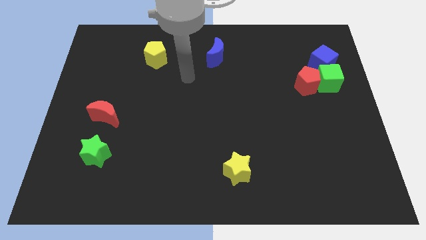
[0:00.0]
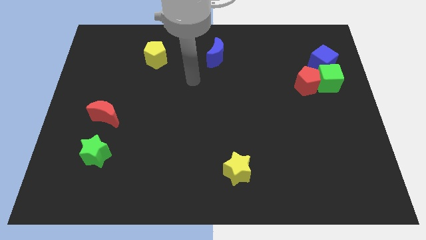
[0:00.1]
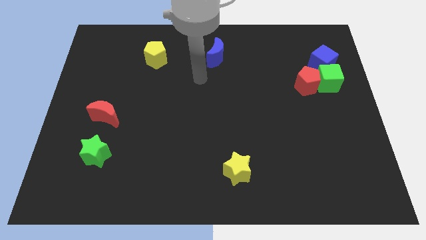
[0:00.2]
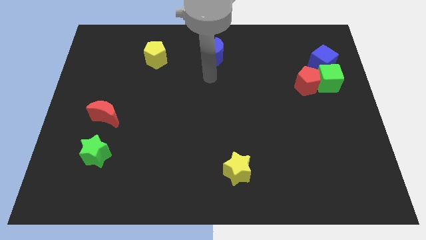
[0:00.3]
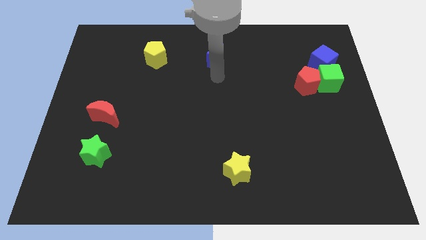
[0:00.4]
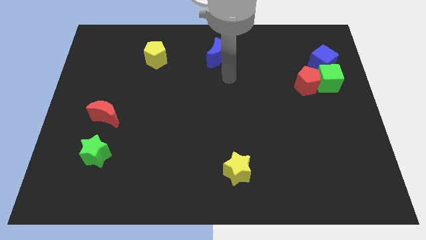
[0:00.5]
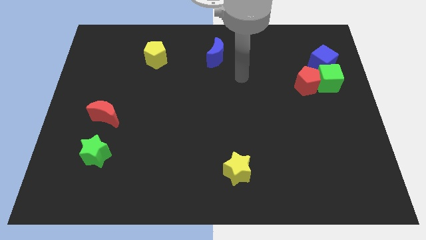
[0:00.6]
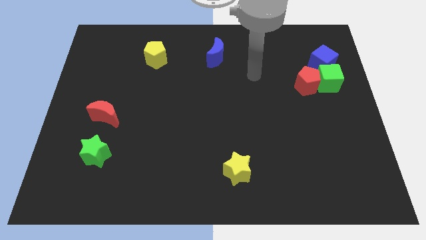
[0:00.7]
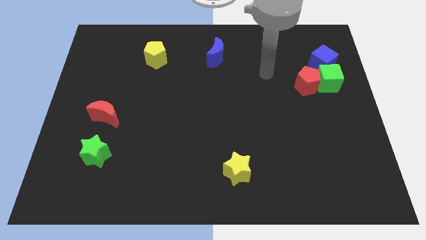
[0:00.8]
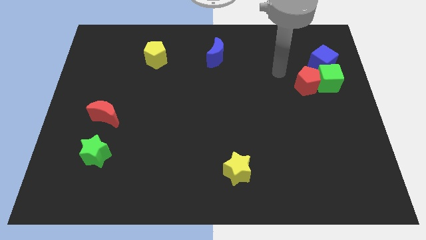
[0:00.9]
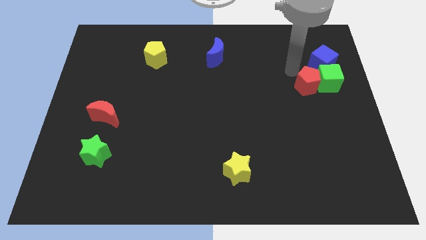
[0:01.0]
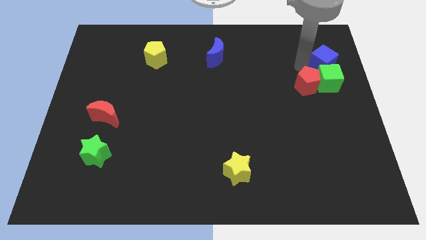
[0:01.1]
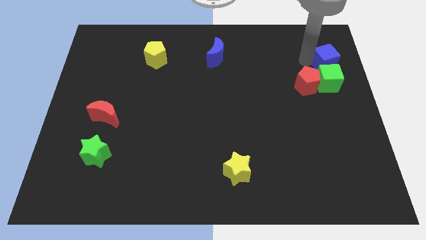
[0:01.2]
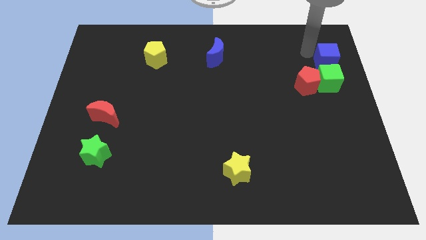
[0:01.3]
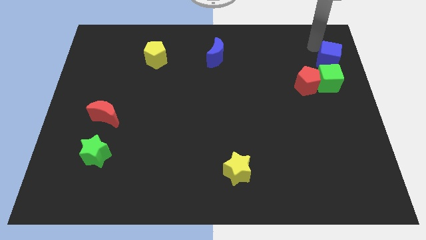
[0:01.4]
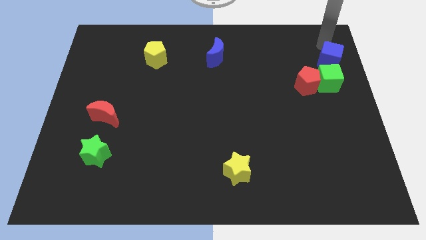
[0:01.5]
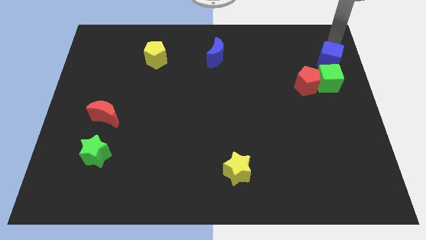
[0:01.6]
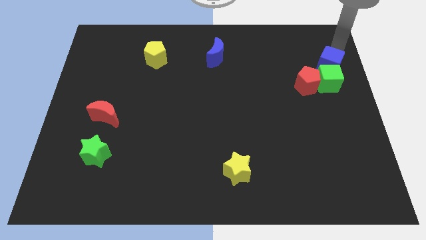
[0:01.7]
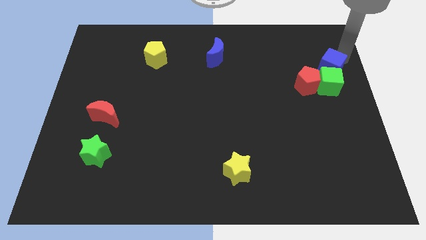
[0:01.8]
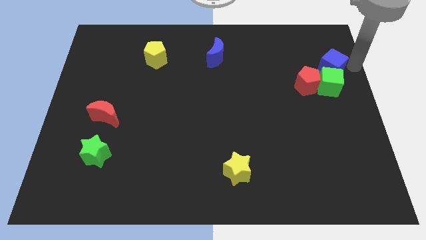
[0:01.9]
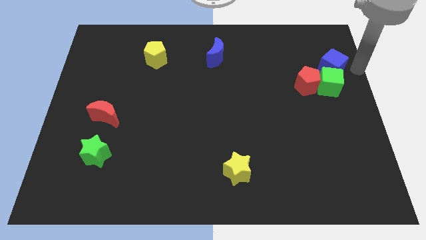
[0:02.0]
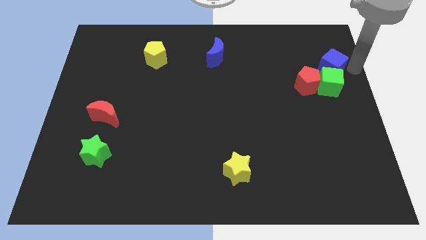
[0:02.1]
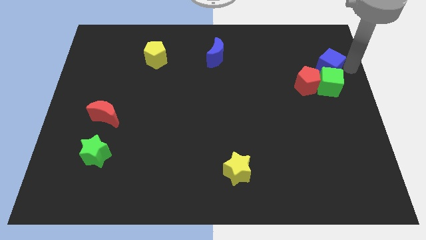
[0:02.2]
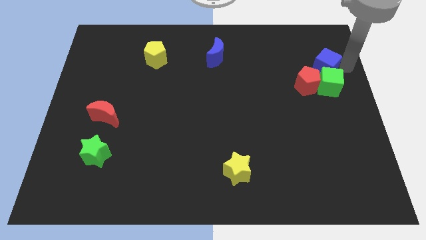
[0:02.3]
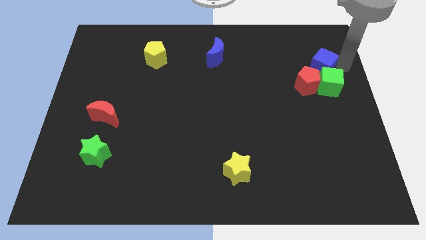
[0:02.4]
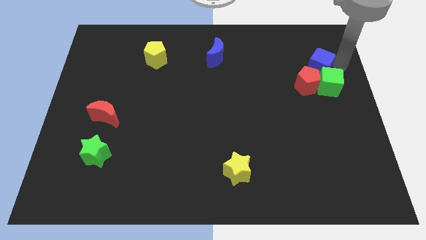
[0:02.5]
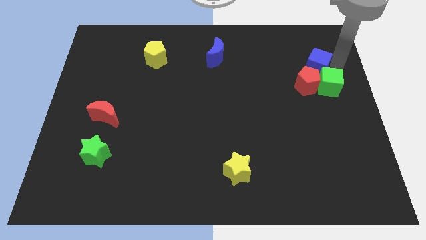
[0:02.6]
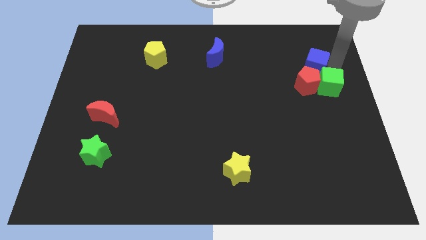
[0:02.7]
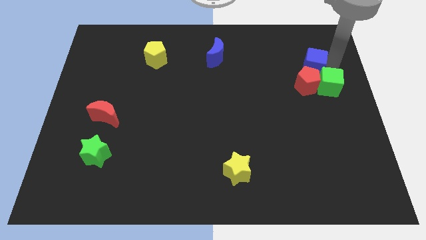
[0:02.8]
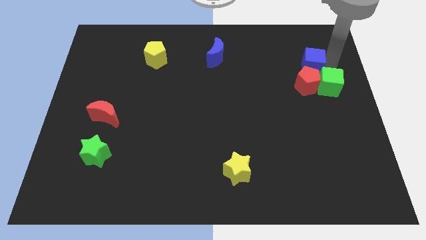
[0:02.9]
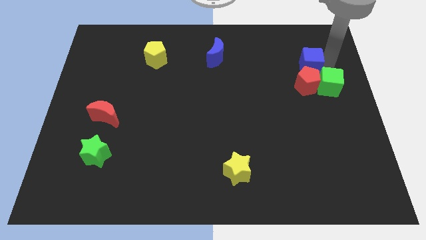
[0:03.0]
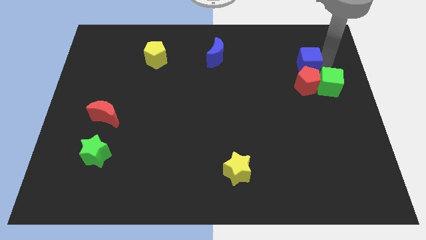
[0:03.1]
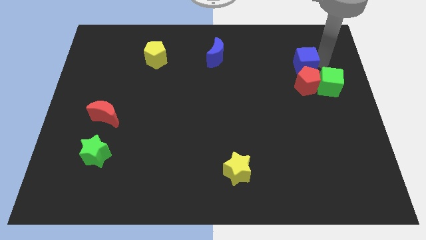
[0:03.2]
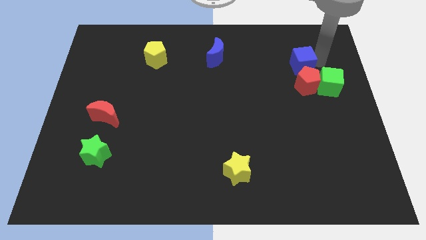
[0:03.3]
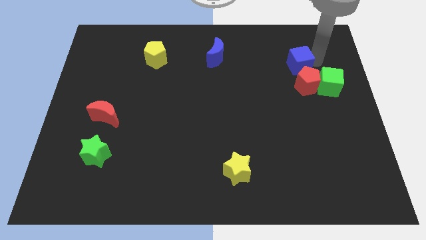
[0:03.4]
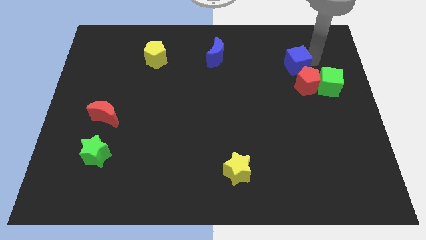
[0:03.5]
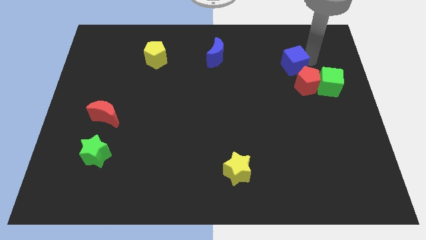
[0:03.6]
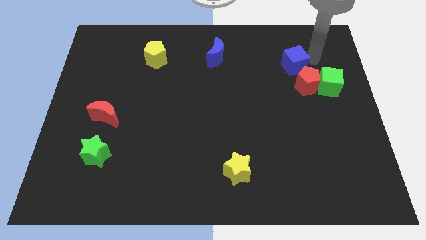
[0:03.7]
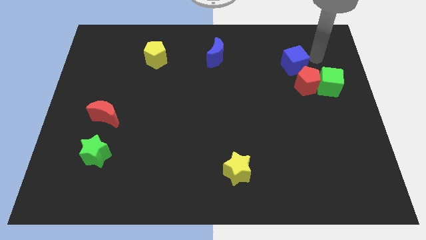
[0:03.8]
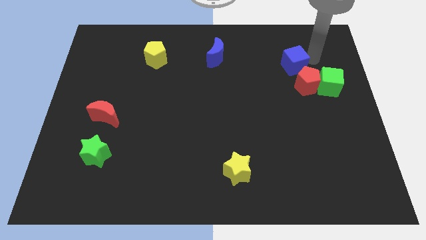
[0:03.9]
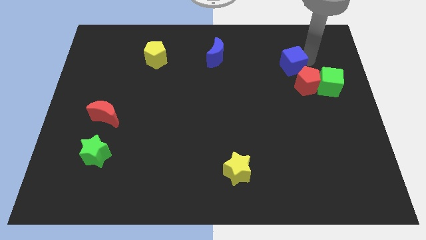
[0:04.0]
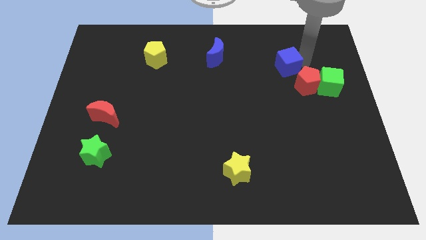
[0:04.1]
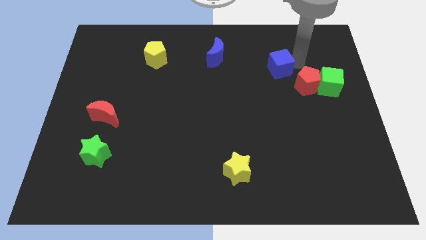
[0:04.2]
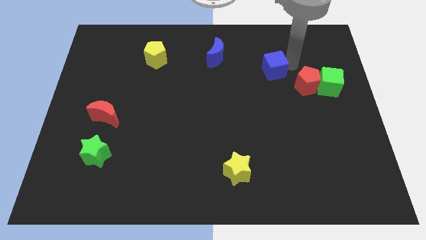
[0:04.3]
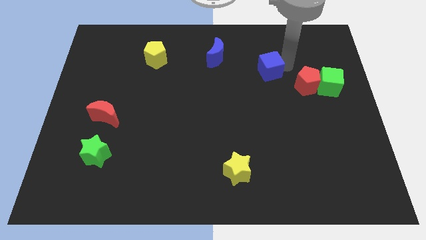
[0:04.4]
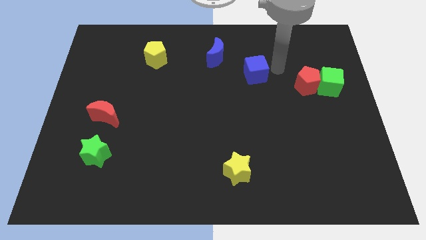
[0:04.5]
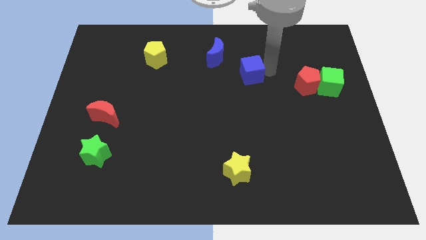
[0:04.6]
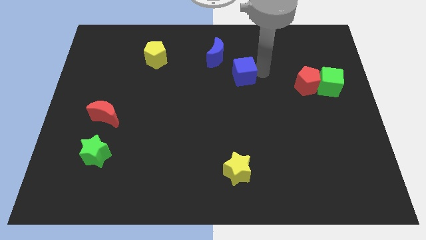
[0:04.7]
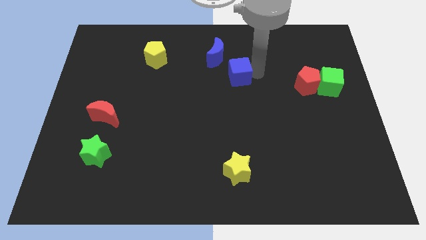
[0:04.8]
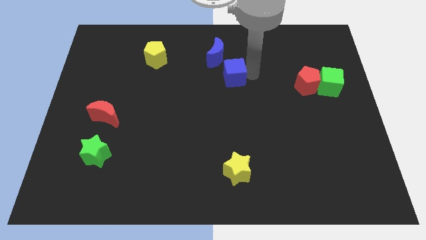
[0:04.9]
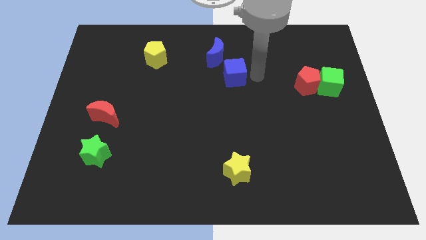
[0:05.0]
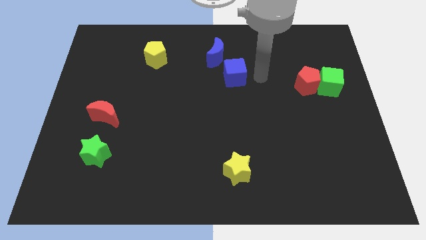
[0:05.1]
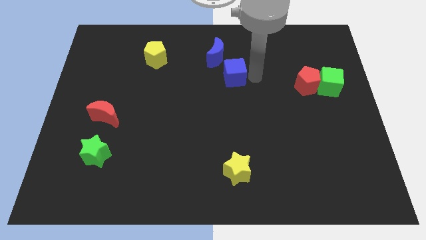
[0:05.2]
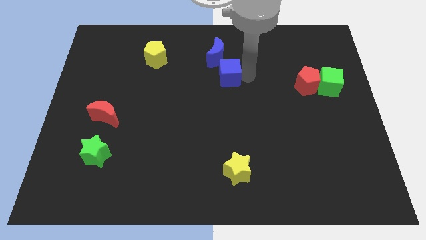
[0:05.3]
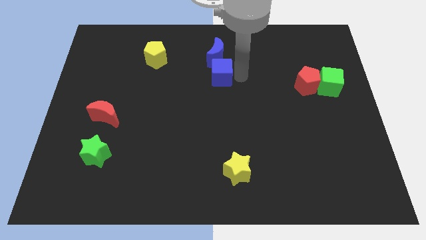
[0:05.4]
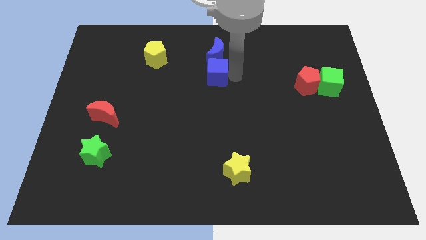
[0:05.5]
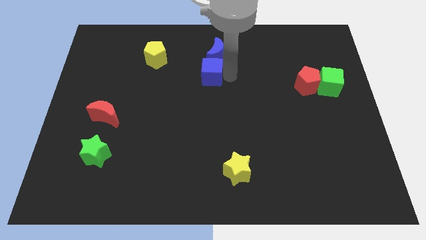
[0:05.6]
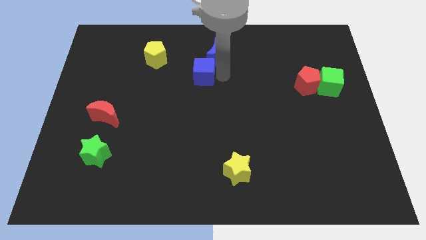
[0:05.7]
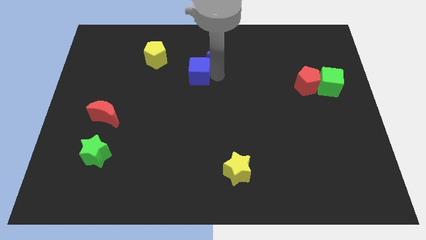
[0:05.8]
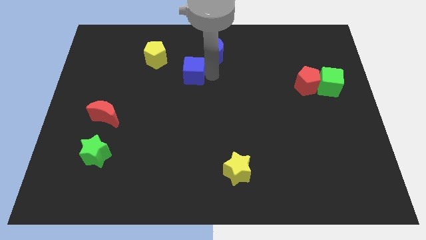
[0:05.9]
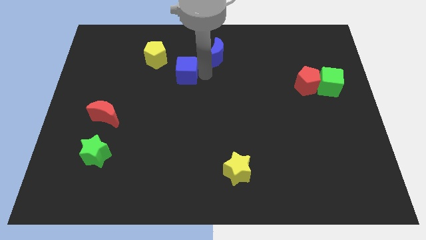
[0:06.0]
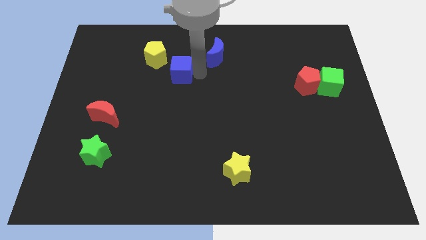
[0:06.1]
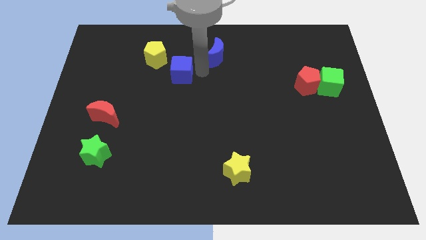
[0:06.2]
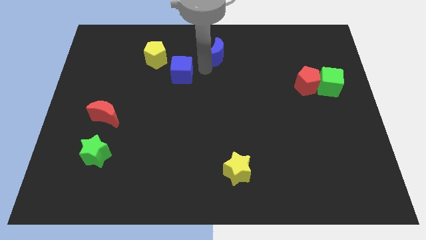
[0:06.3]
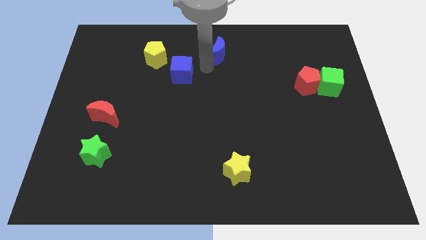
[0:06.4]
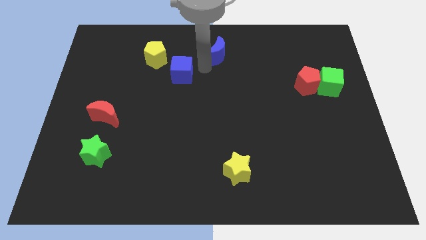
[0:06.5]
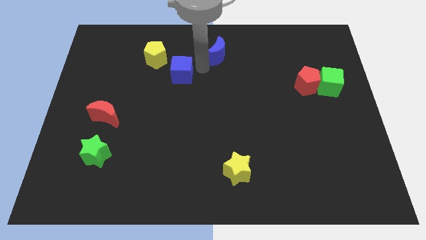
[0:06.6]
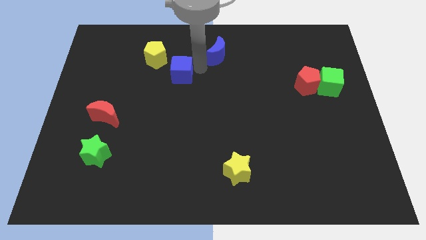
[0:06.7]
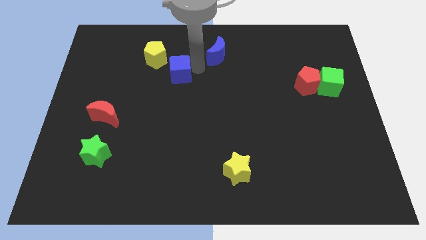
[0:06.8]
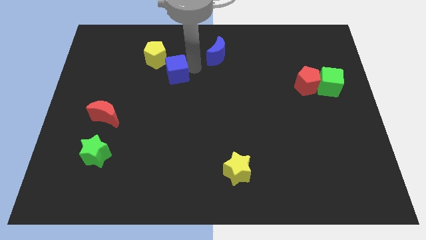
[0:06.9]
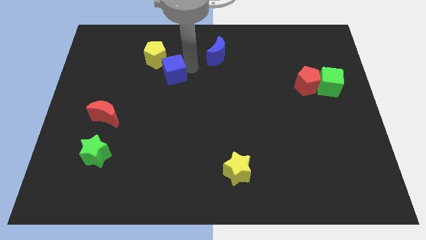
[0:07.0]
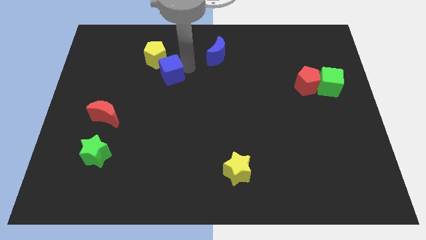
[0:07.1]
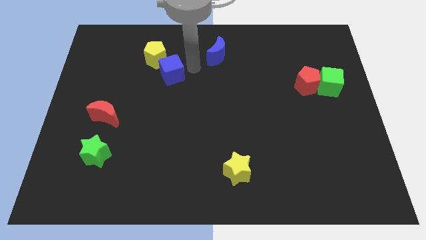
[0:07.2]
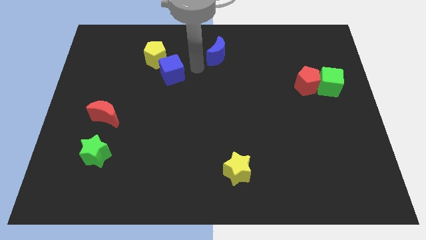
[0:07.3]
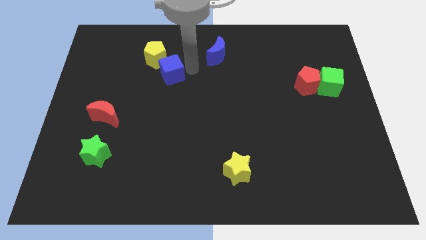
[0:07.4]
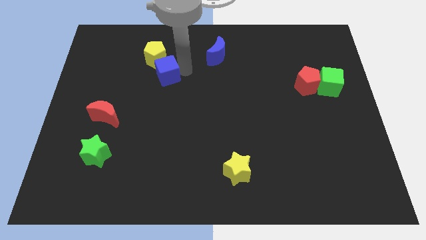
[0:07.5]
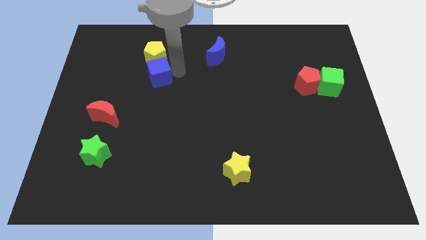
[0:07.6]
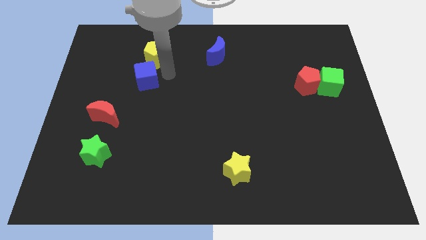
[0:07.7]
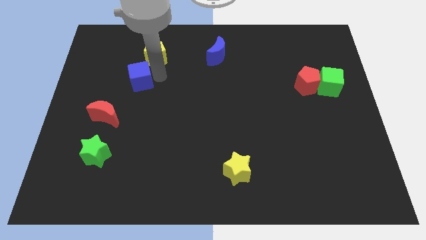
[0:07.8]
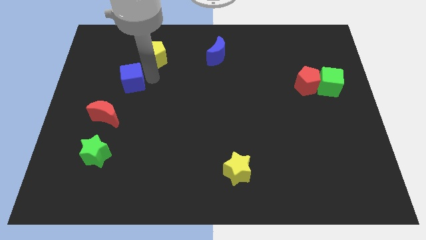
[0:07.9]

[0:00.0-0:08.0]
push the blue cube to the top of the red moon
